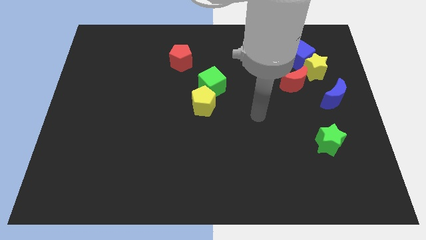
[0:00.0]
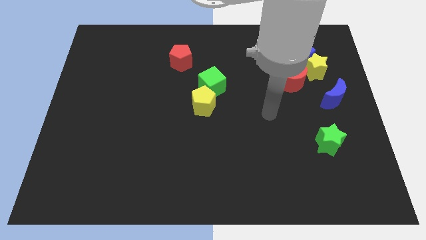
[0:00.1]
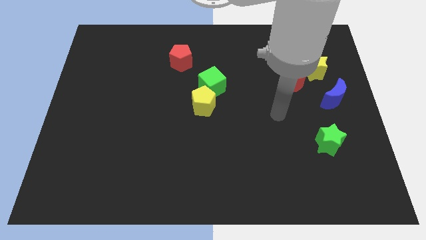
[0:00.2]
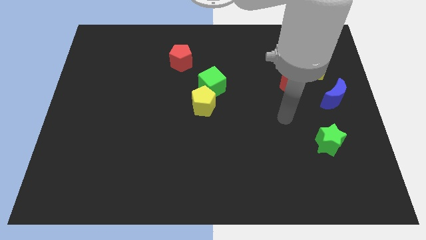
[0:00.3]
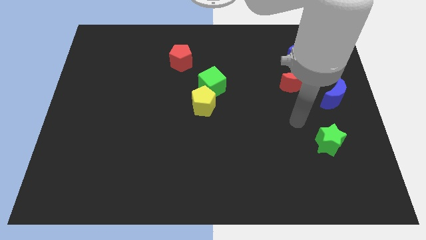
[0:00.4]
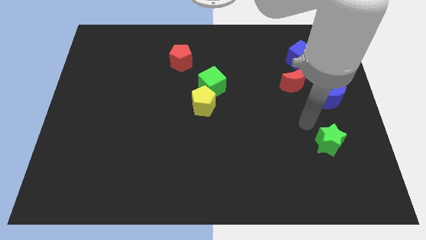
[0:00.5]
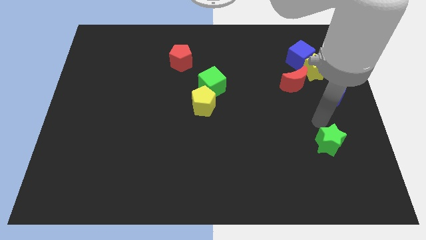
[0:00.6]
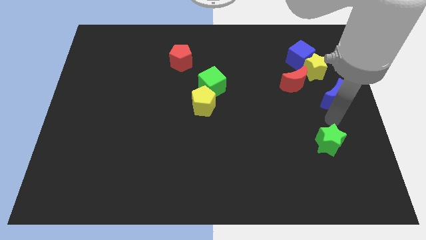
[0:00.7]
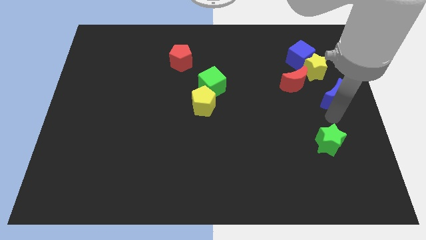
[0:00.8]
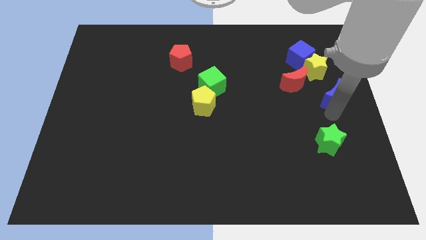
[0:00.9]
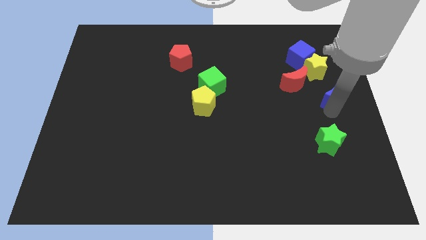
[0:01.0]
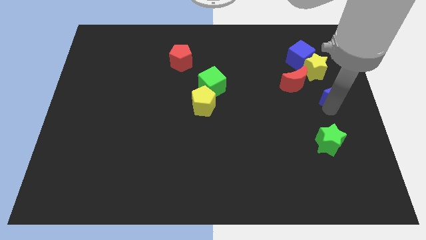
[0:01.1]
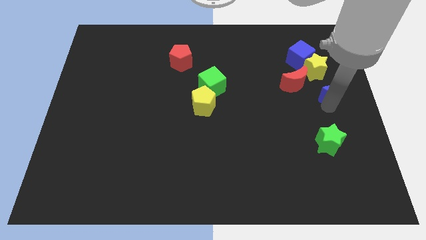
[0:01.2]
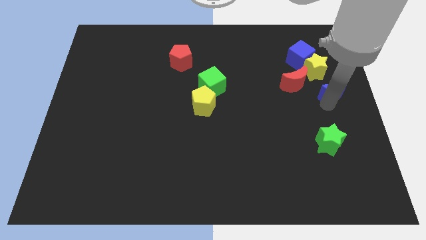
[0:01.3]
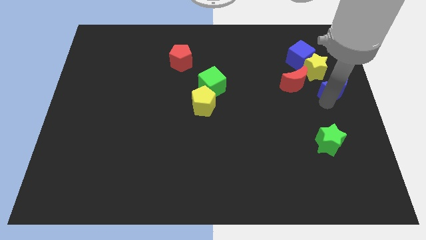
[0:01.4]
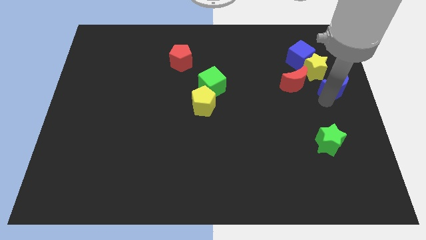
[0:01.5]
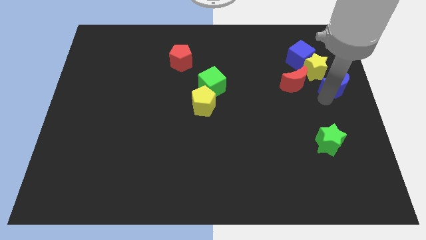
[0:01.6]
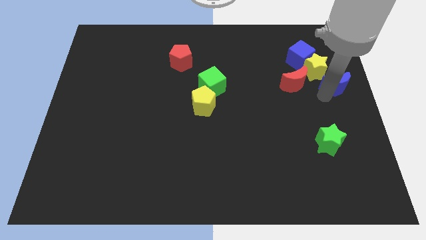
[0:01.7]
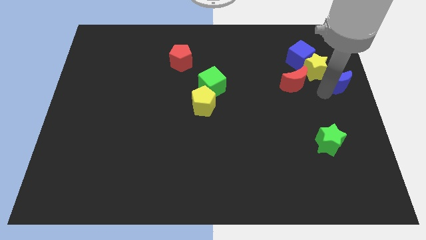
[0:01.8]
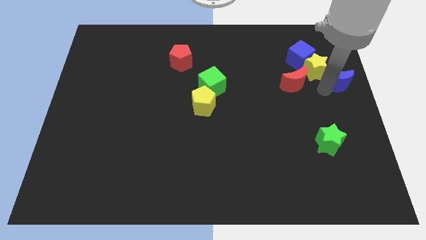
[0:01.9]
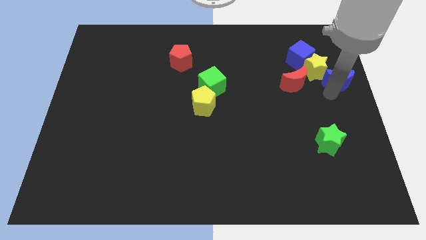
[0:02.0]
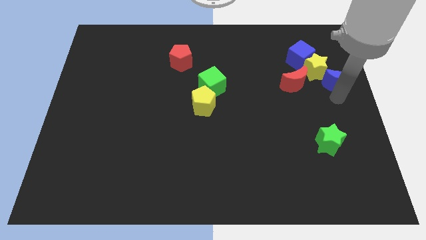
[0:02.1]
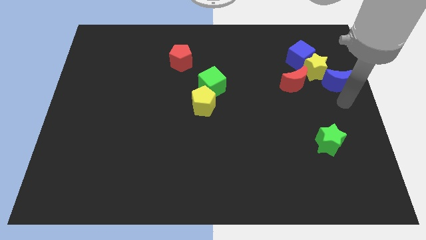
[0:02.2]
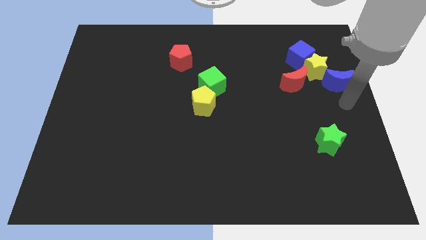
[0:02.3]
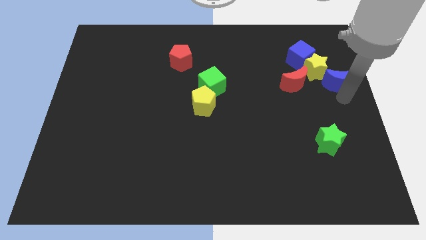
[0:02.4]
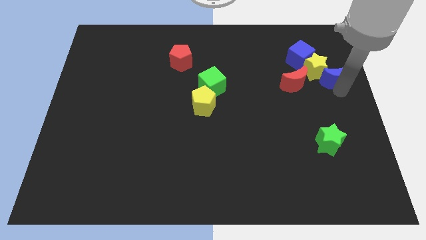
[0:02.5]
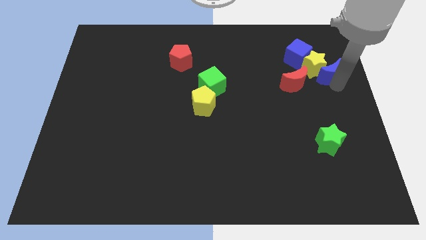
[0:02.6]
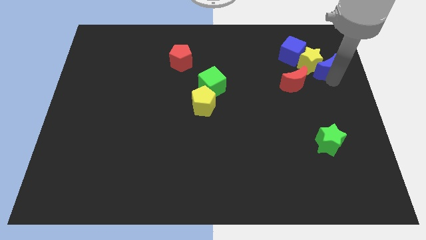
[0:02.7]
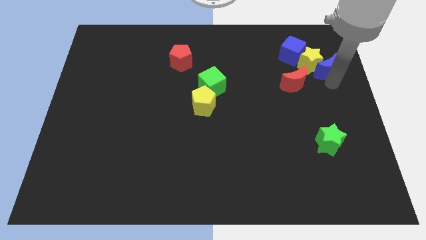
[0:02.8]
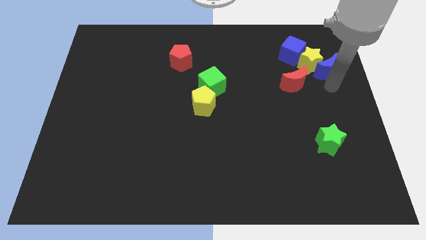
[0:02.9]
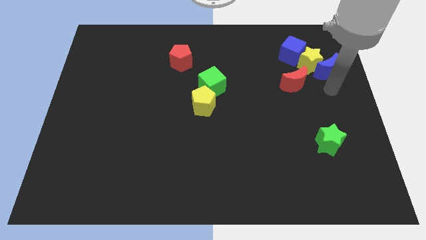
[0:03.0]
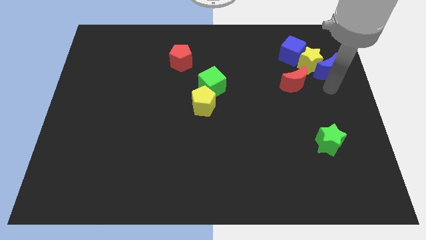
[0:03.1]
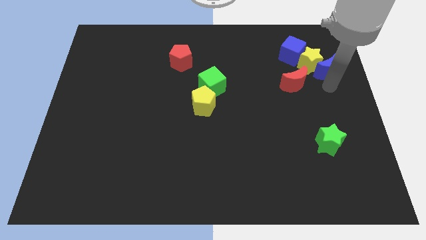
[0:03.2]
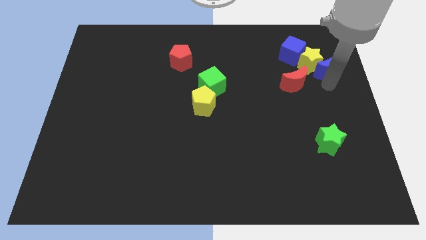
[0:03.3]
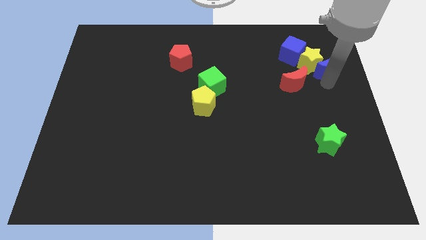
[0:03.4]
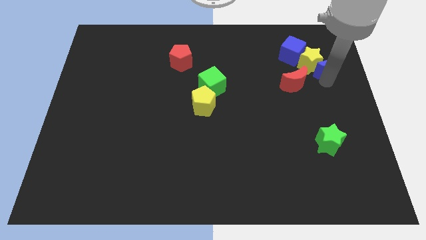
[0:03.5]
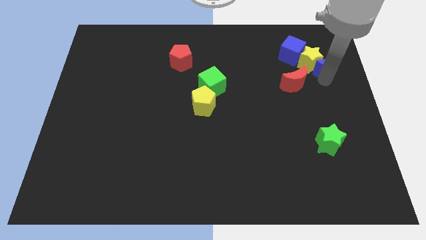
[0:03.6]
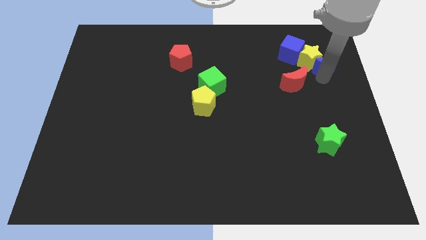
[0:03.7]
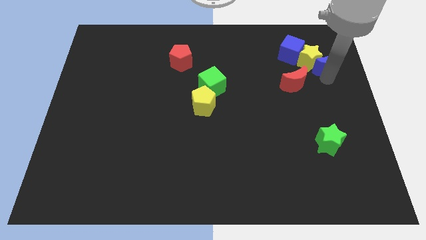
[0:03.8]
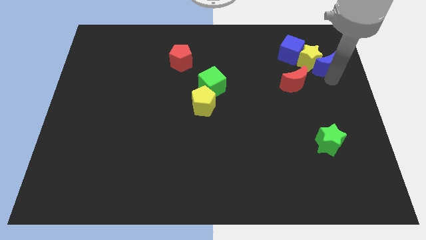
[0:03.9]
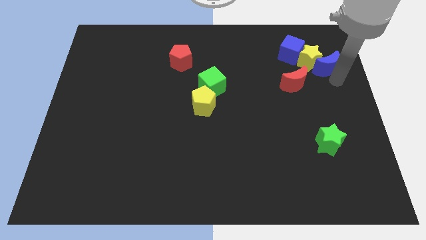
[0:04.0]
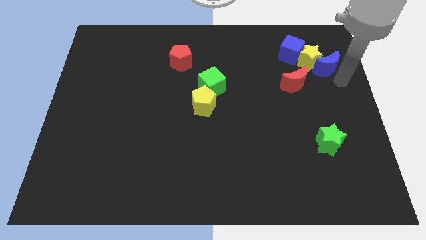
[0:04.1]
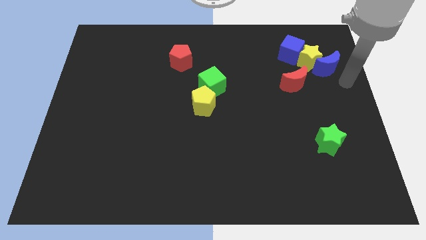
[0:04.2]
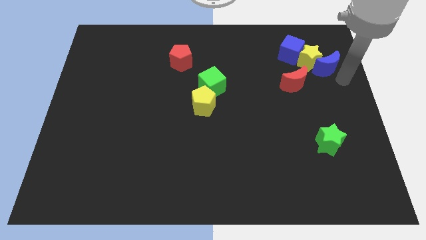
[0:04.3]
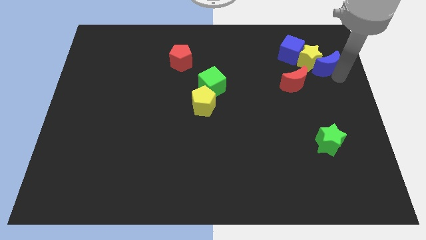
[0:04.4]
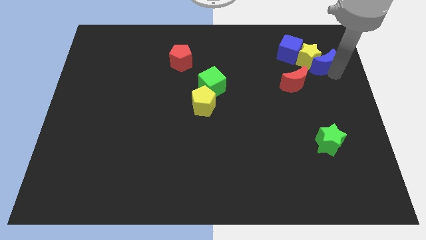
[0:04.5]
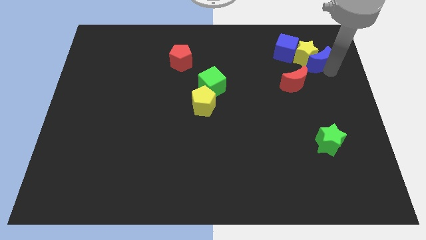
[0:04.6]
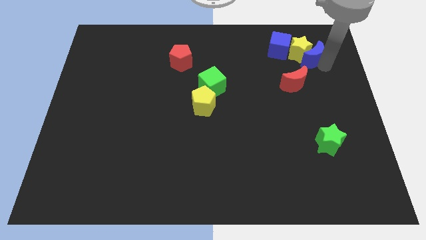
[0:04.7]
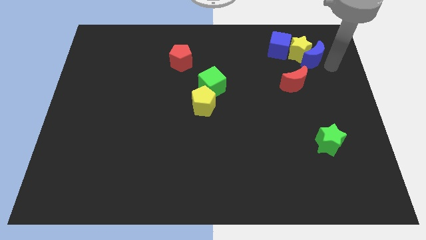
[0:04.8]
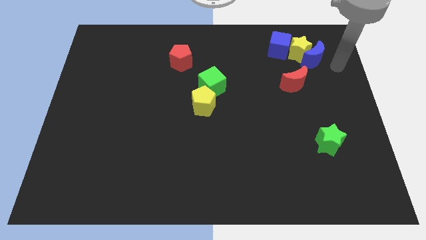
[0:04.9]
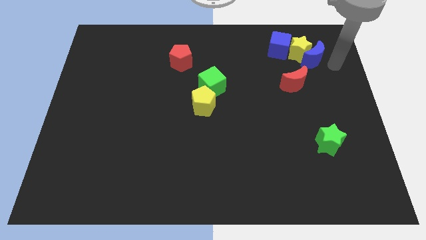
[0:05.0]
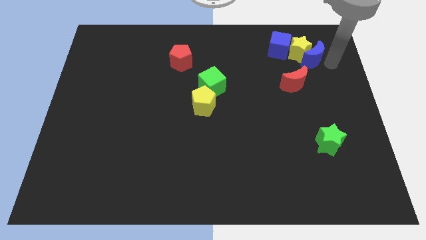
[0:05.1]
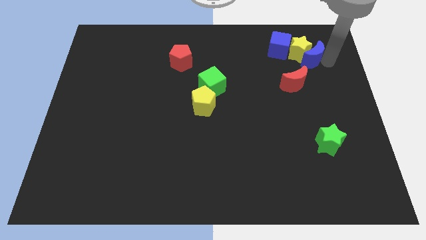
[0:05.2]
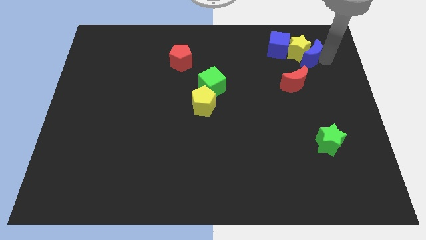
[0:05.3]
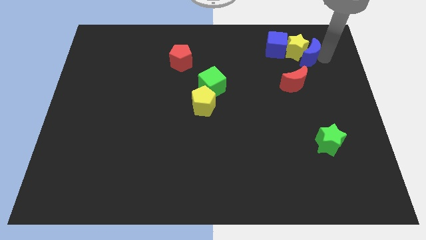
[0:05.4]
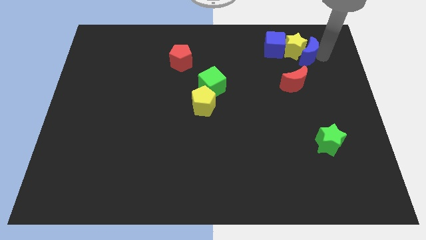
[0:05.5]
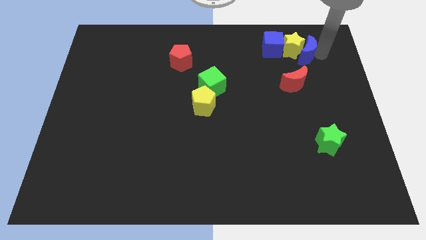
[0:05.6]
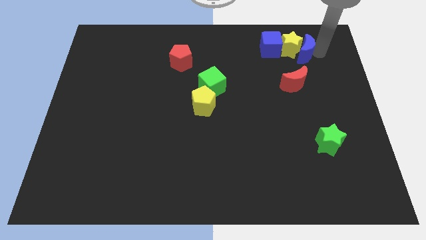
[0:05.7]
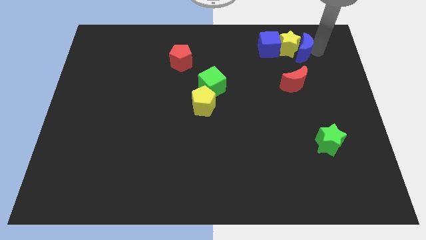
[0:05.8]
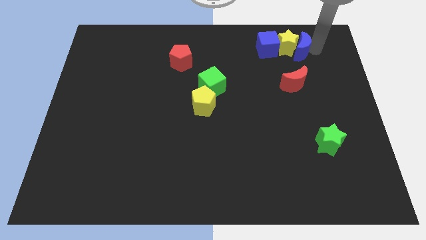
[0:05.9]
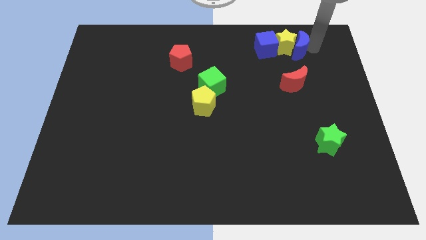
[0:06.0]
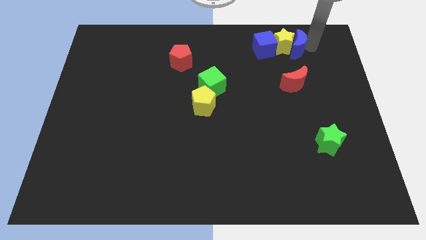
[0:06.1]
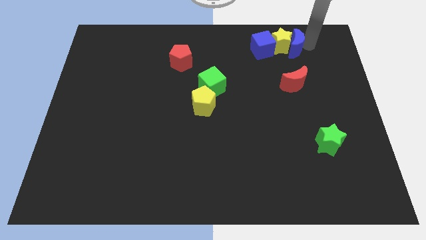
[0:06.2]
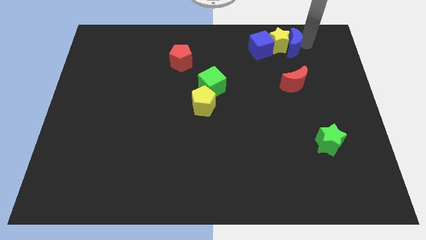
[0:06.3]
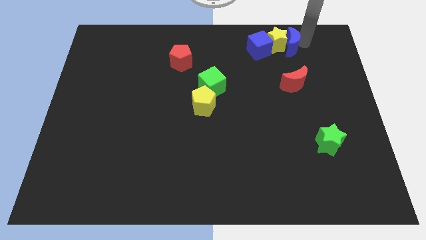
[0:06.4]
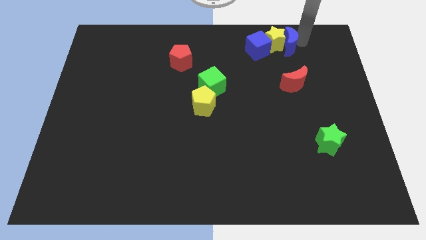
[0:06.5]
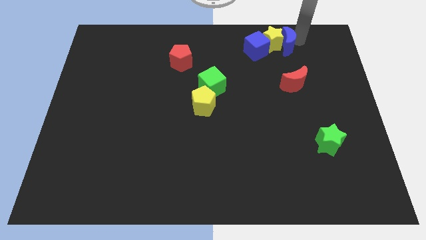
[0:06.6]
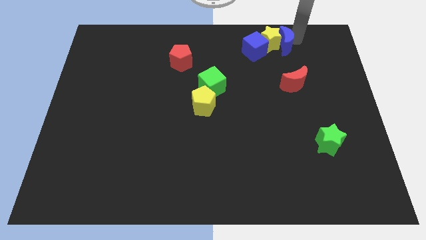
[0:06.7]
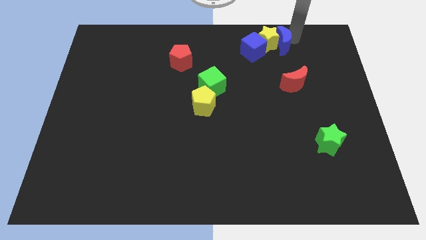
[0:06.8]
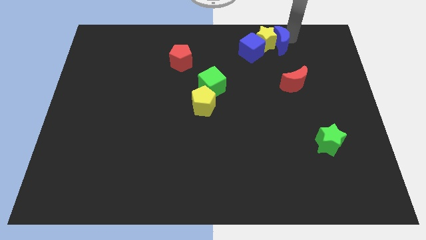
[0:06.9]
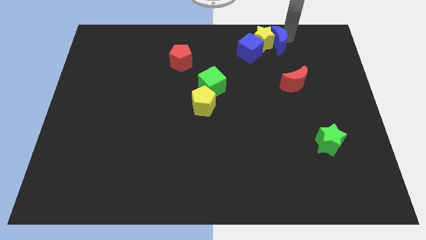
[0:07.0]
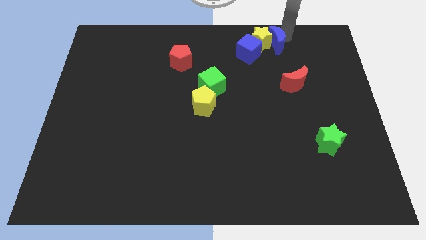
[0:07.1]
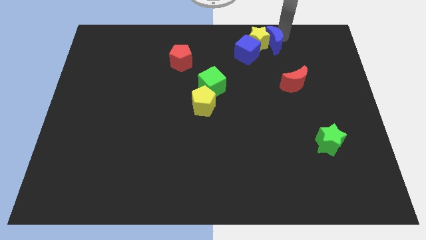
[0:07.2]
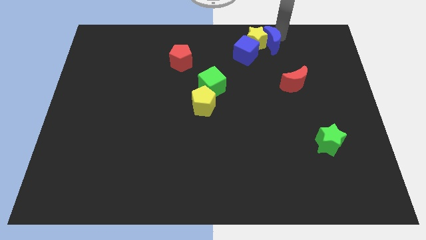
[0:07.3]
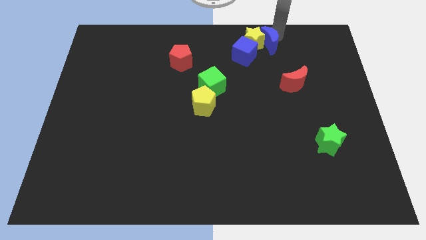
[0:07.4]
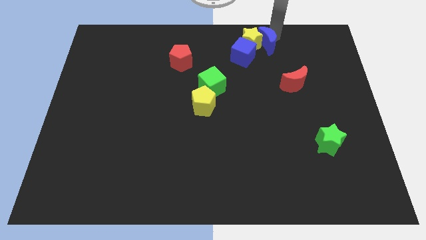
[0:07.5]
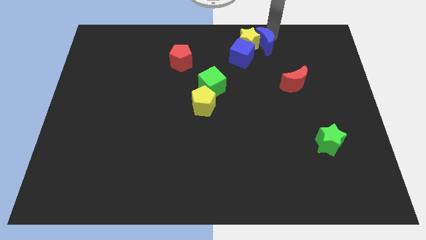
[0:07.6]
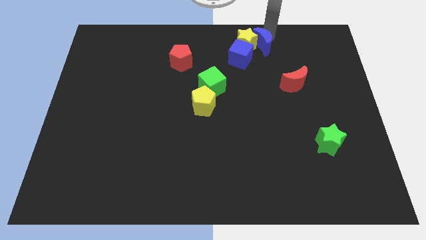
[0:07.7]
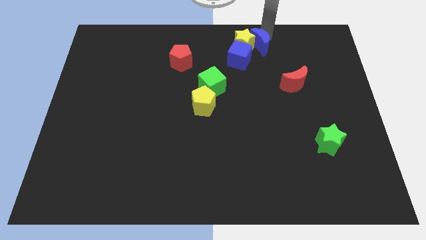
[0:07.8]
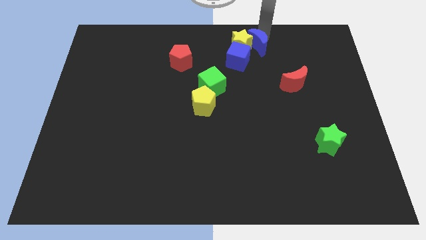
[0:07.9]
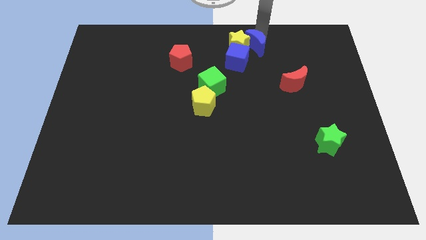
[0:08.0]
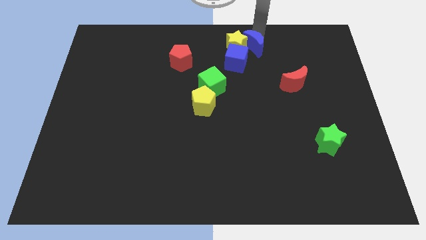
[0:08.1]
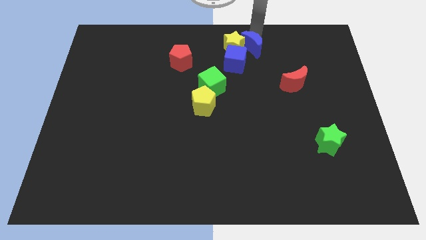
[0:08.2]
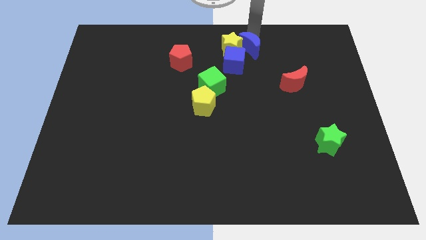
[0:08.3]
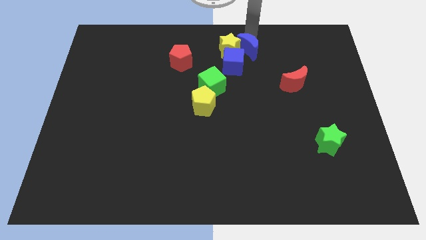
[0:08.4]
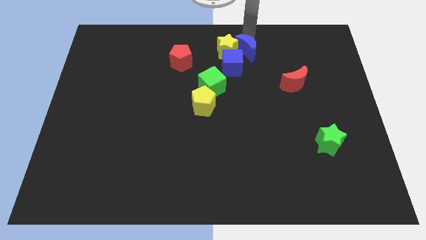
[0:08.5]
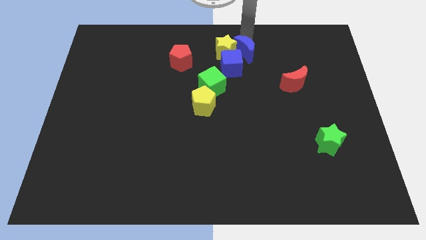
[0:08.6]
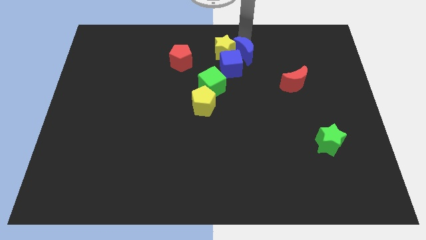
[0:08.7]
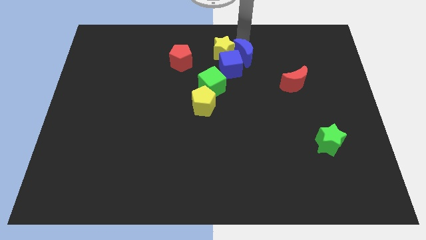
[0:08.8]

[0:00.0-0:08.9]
slide the blue moon close to the blue cube
